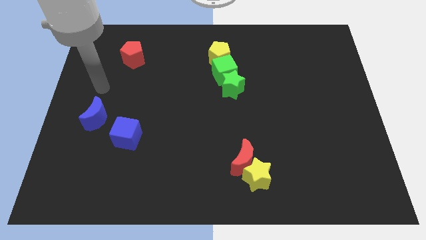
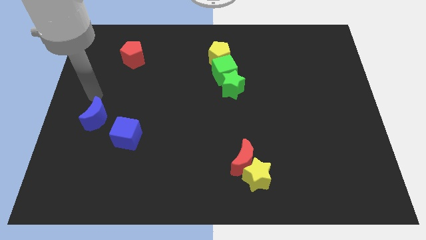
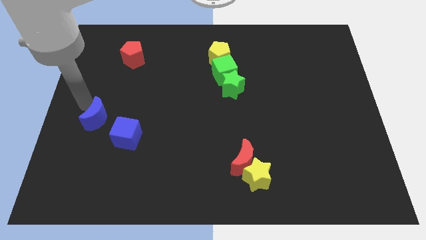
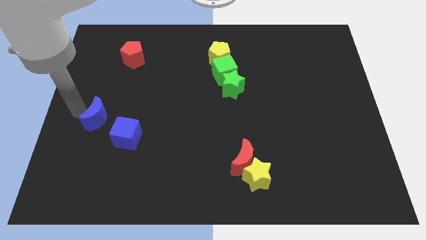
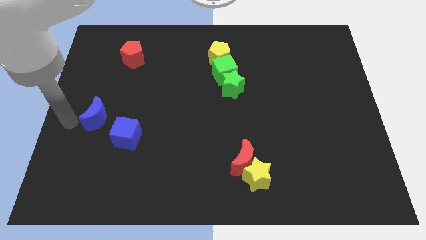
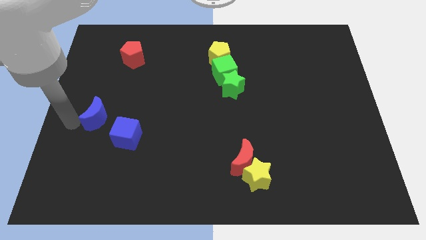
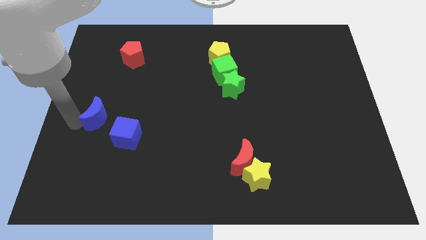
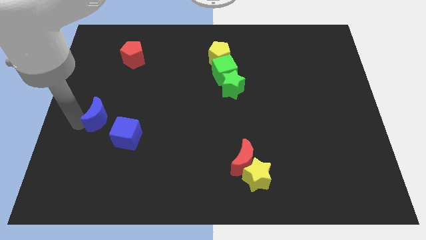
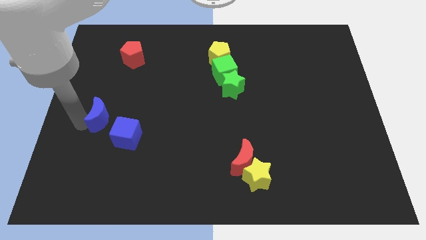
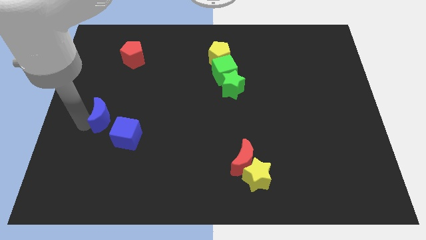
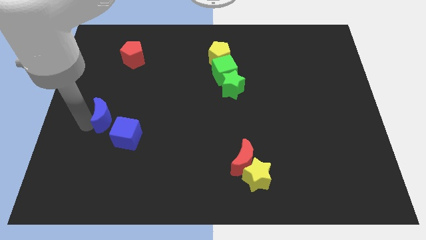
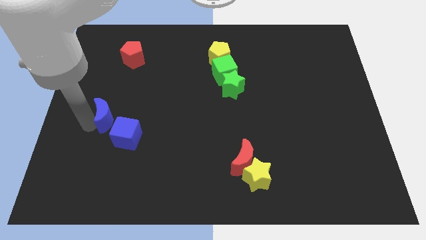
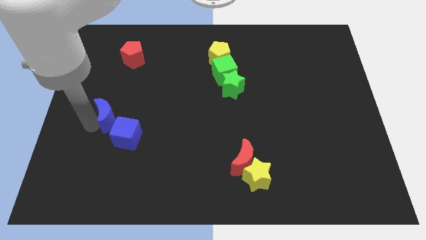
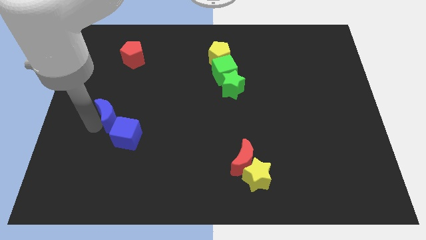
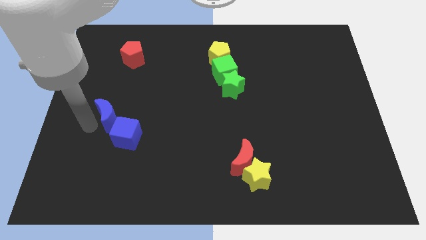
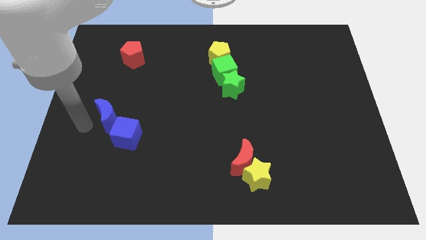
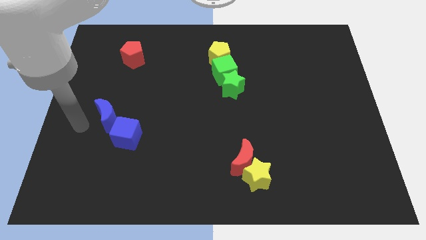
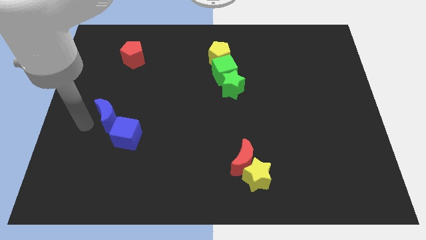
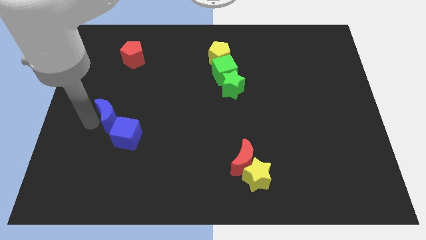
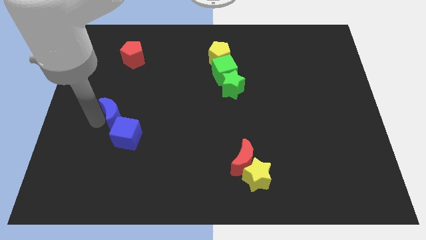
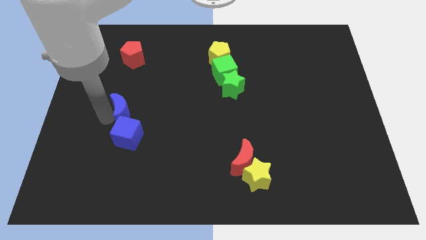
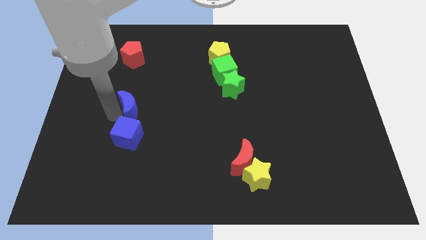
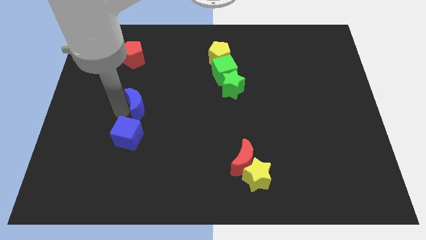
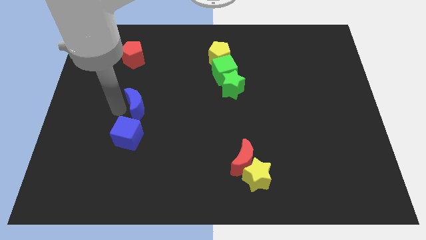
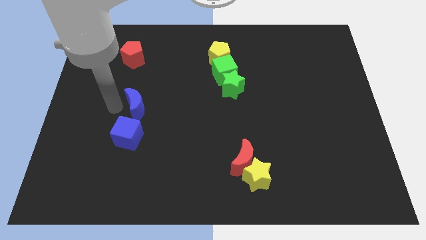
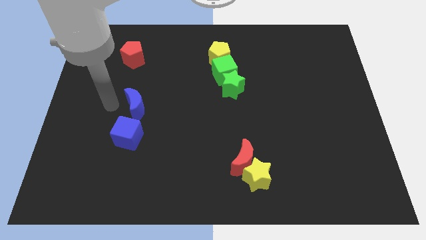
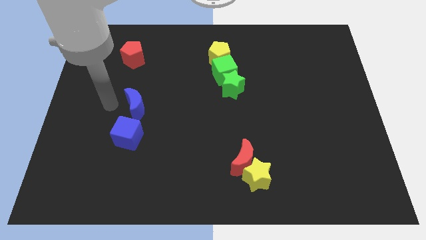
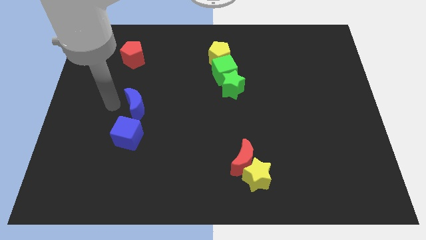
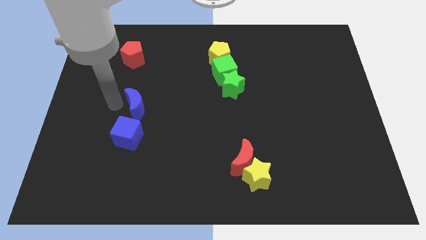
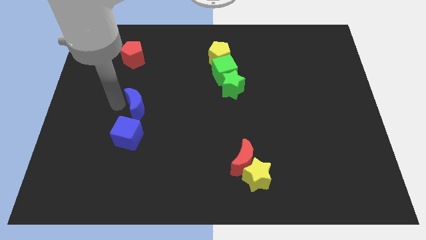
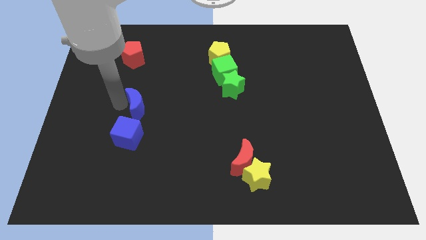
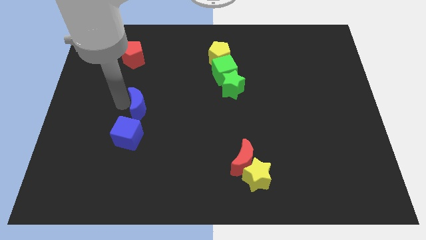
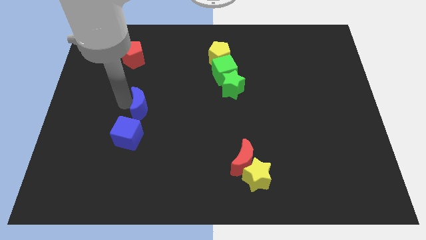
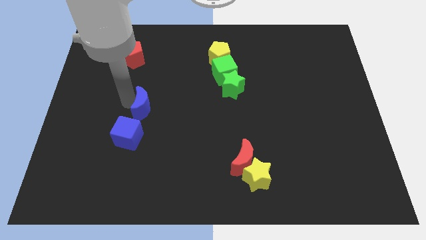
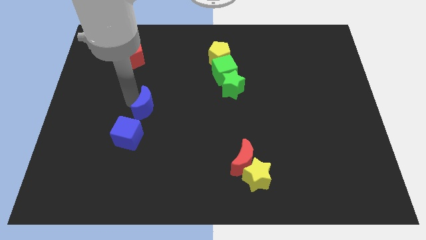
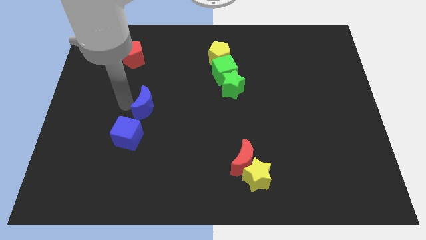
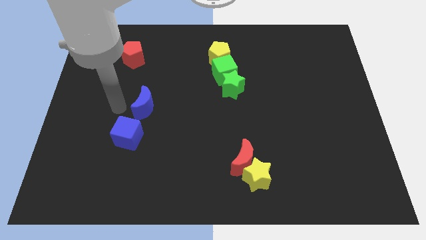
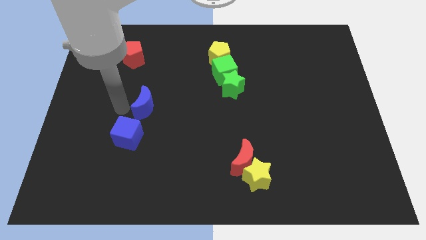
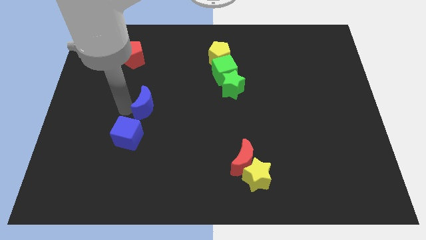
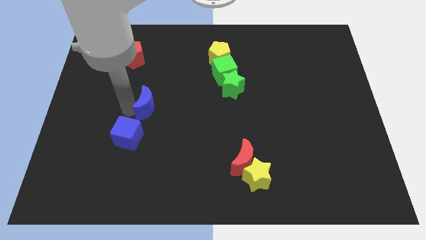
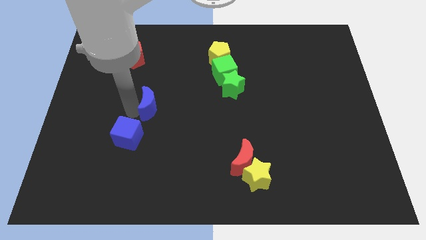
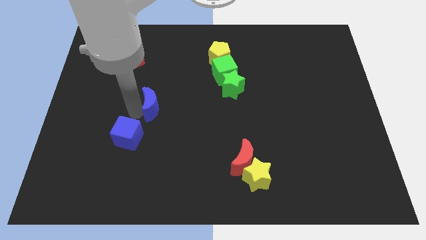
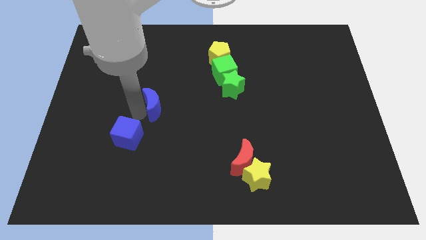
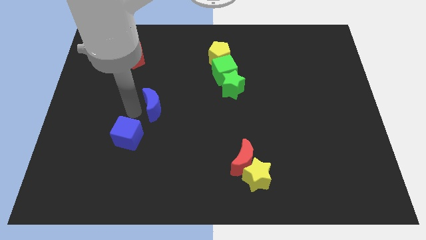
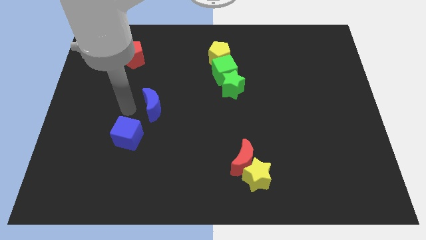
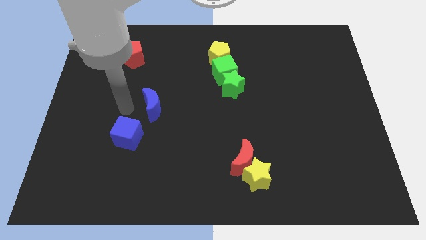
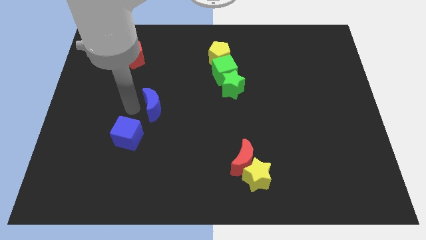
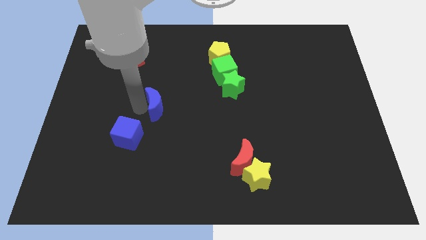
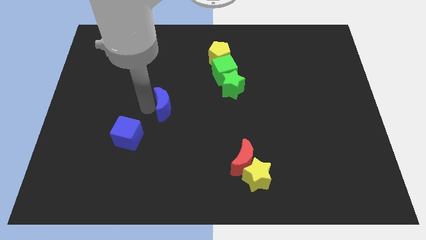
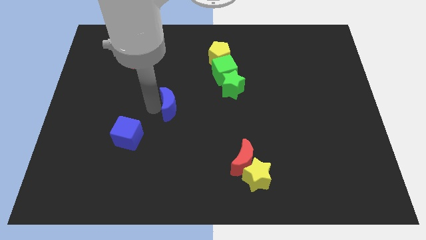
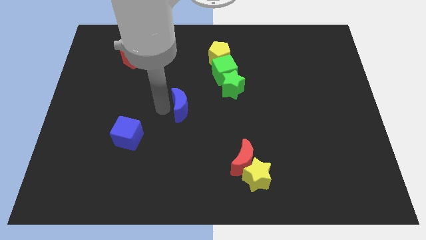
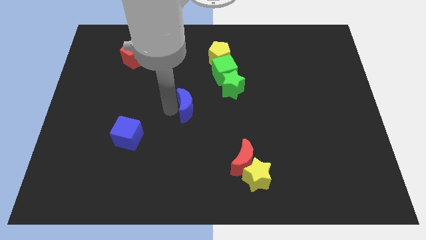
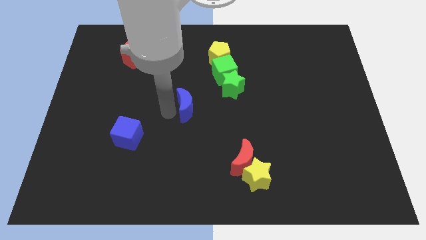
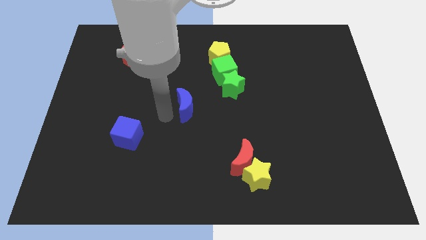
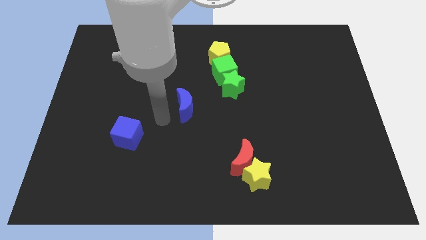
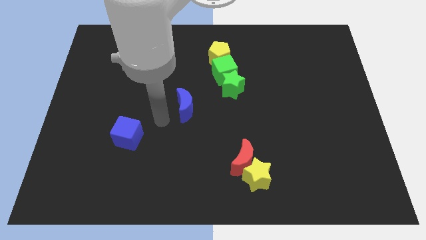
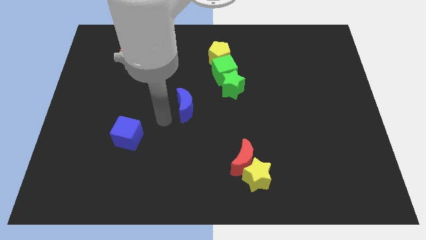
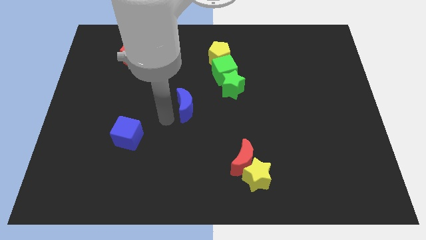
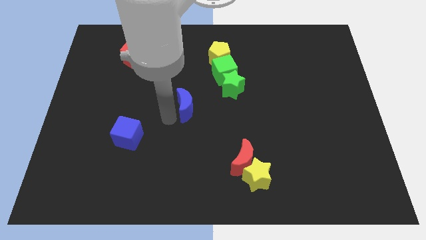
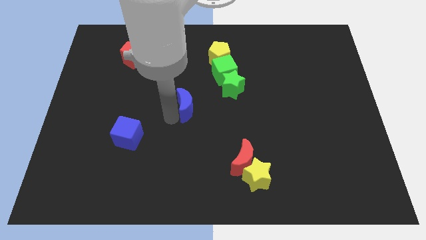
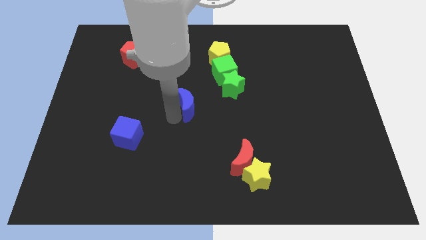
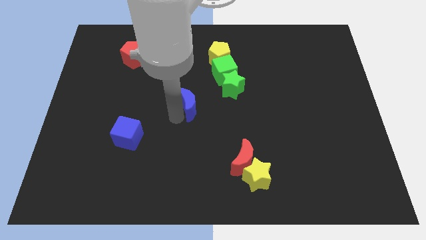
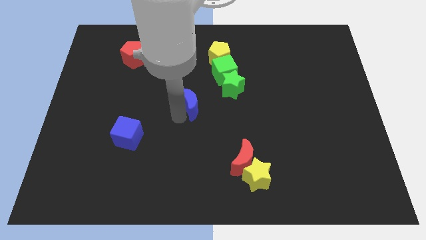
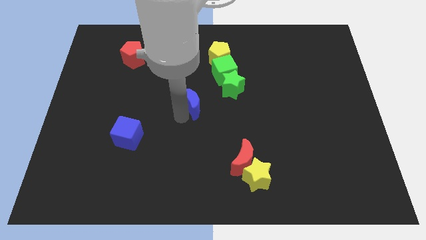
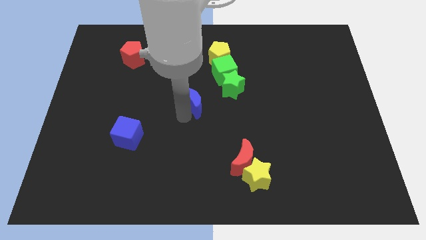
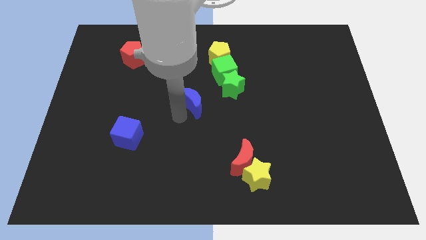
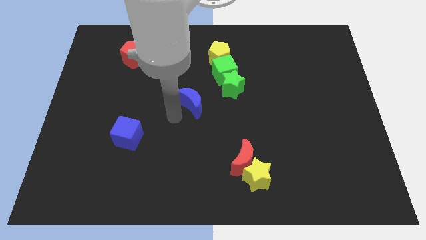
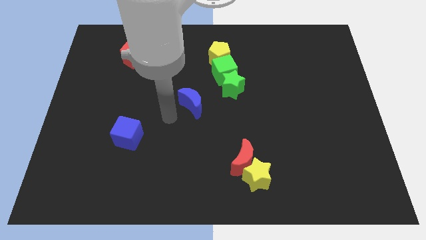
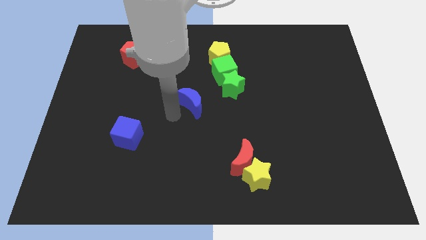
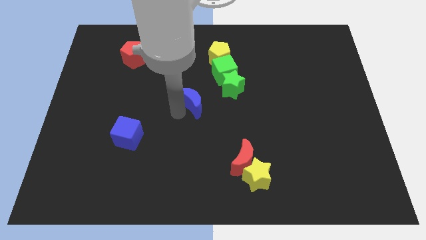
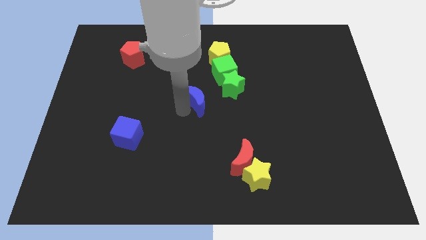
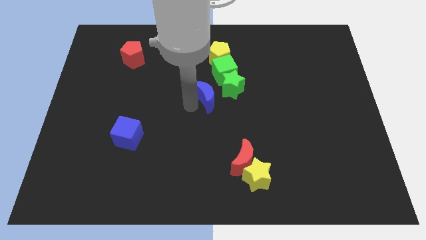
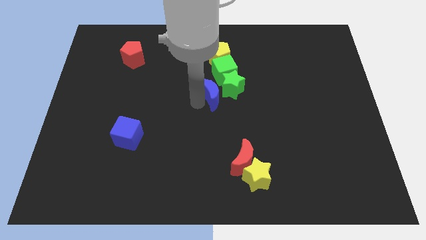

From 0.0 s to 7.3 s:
push the blue moon to the green star
